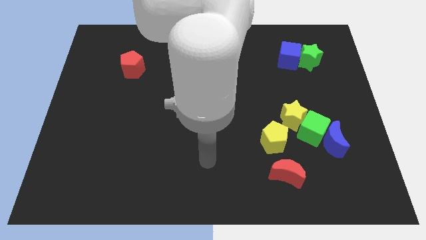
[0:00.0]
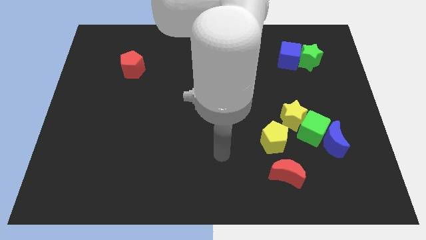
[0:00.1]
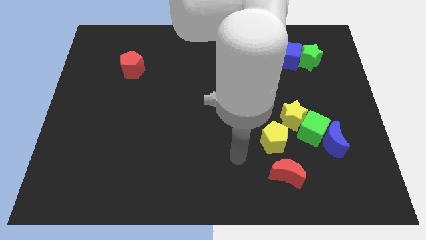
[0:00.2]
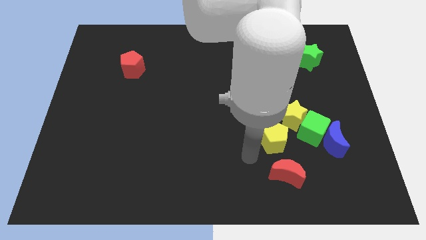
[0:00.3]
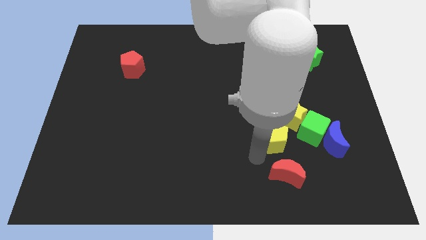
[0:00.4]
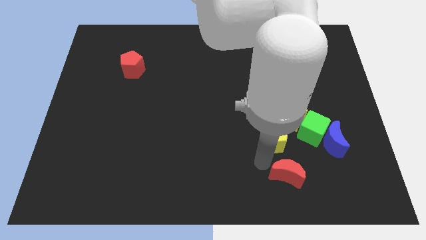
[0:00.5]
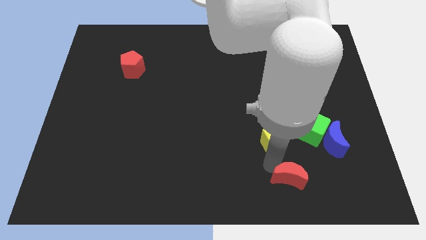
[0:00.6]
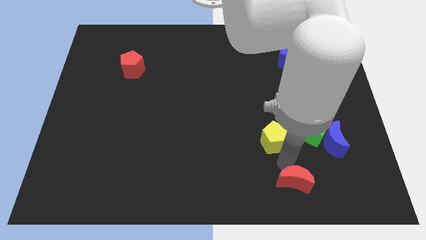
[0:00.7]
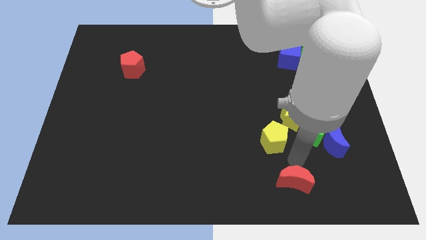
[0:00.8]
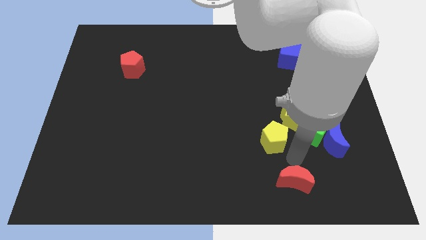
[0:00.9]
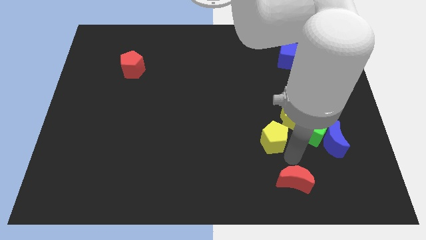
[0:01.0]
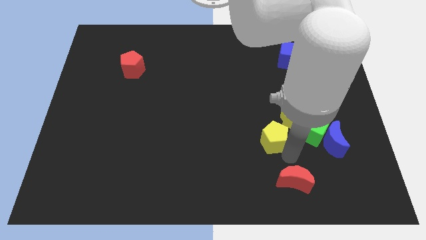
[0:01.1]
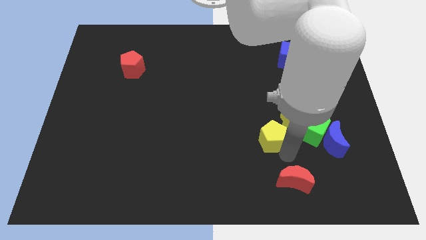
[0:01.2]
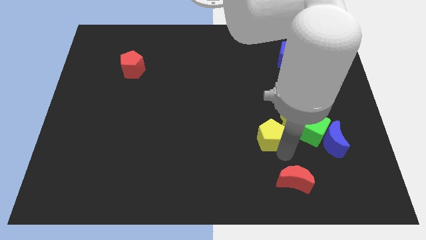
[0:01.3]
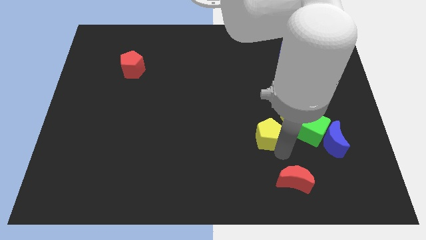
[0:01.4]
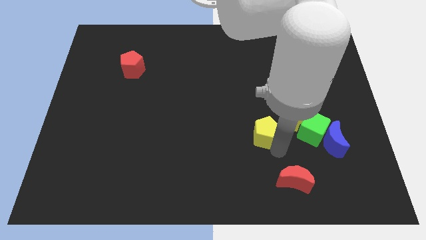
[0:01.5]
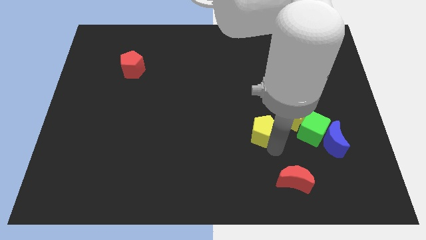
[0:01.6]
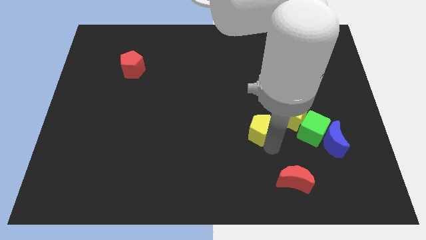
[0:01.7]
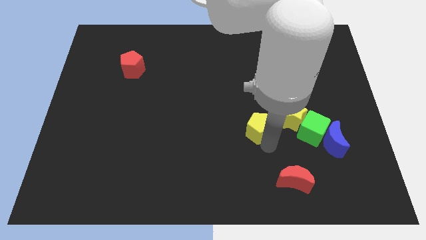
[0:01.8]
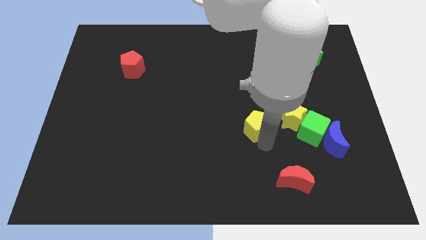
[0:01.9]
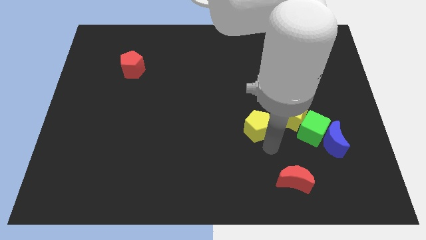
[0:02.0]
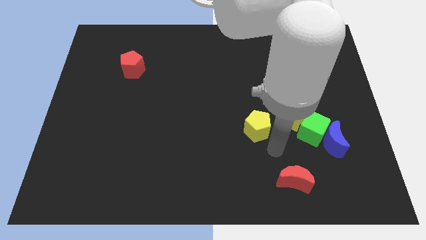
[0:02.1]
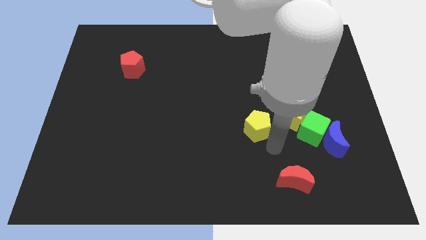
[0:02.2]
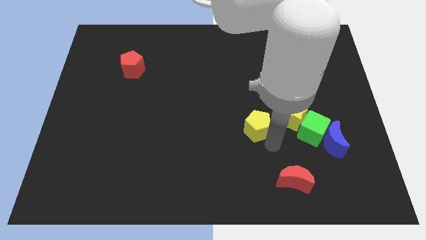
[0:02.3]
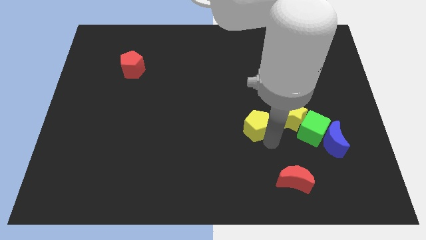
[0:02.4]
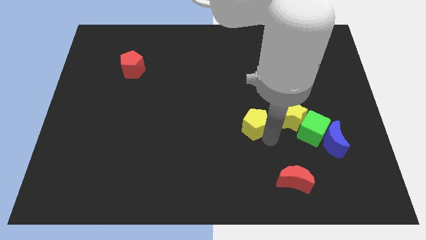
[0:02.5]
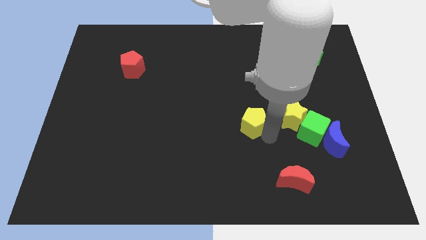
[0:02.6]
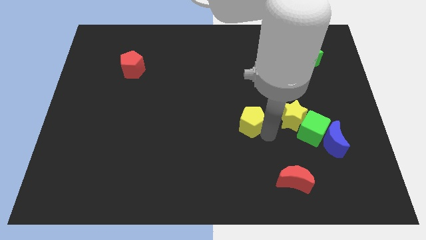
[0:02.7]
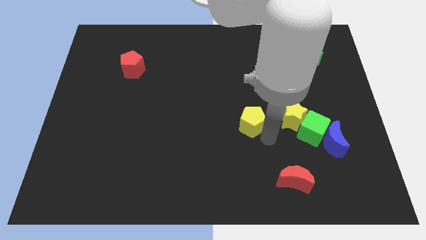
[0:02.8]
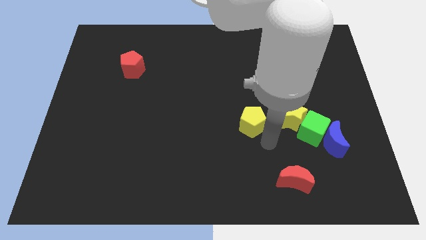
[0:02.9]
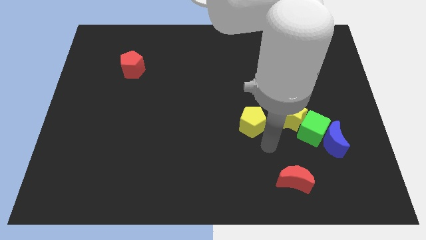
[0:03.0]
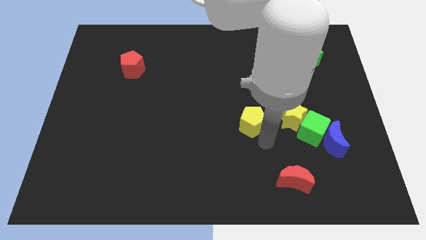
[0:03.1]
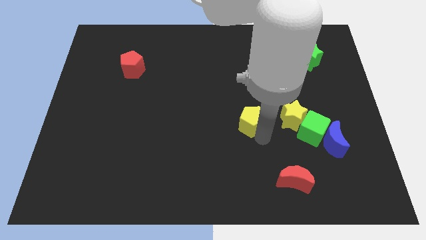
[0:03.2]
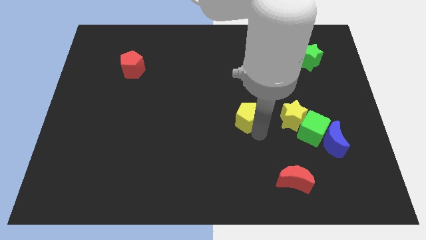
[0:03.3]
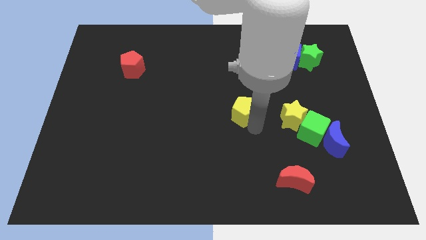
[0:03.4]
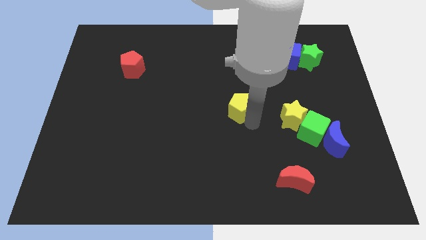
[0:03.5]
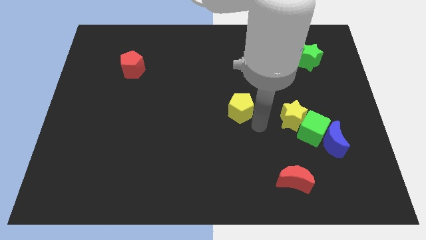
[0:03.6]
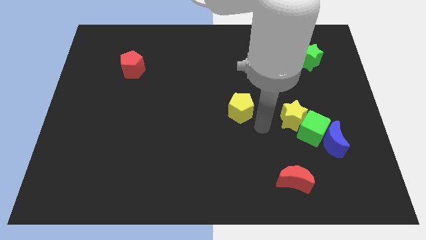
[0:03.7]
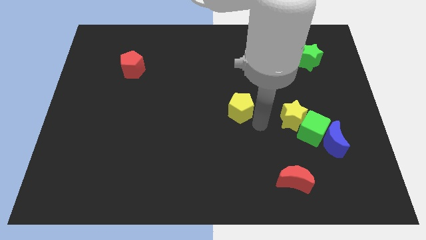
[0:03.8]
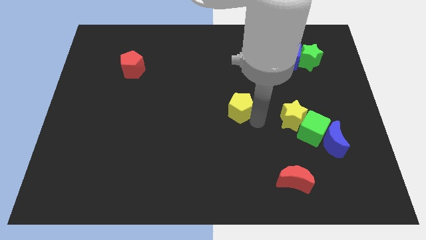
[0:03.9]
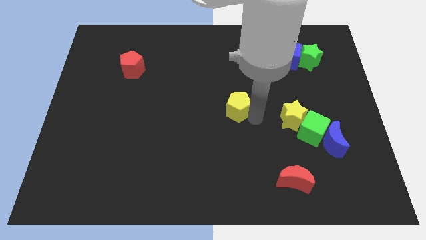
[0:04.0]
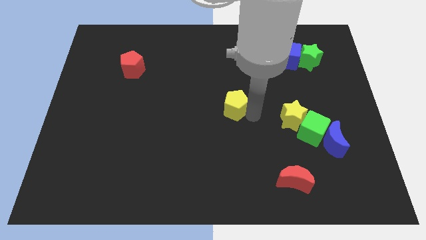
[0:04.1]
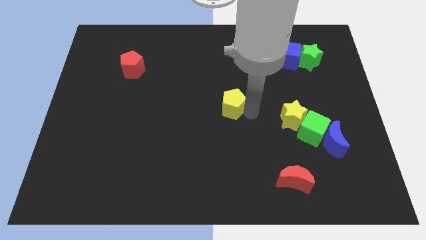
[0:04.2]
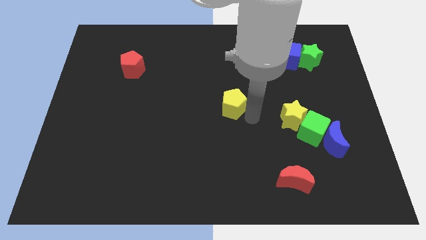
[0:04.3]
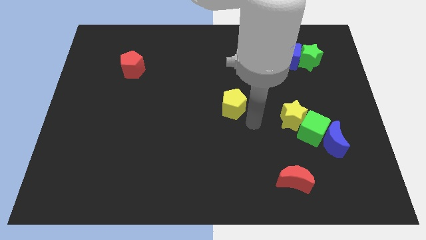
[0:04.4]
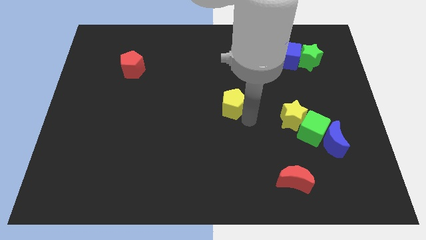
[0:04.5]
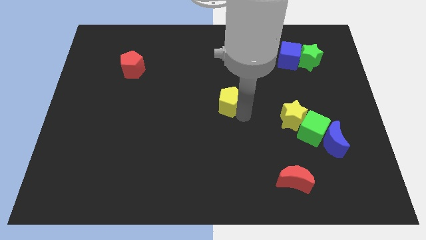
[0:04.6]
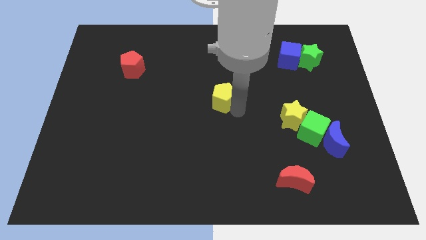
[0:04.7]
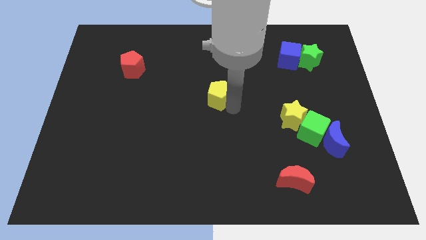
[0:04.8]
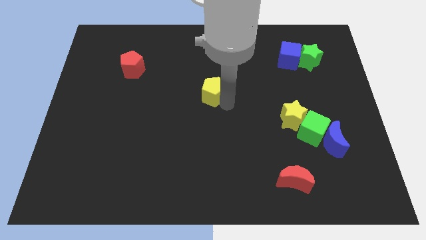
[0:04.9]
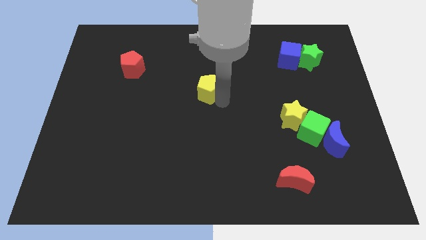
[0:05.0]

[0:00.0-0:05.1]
move the yellow pentagon upwards and to the left

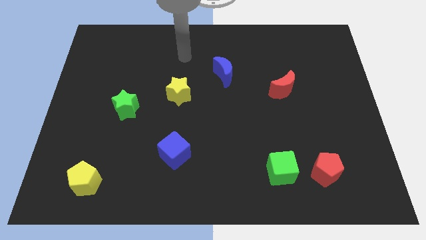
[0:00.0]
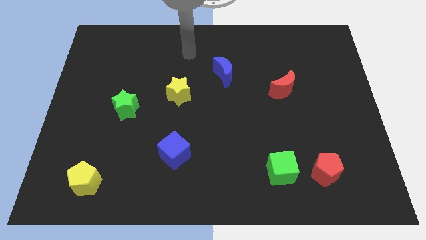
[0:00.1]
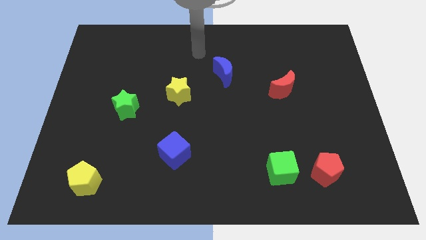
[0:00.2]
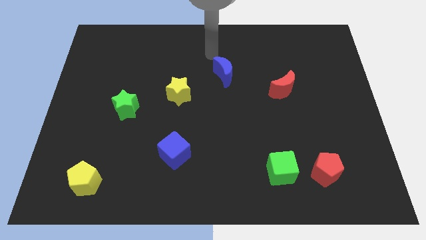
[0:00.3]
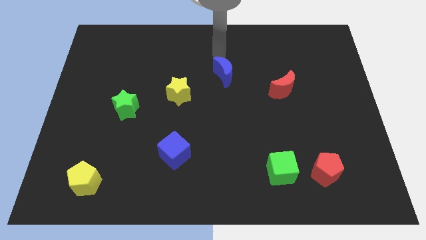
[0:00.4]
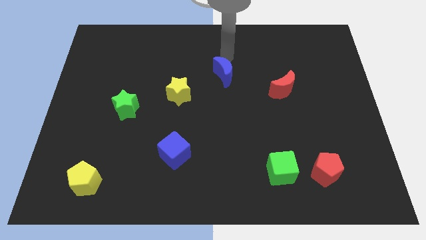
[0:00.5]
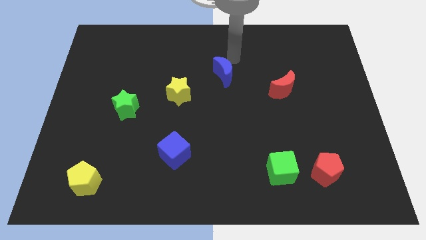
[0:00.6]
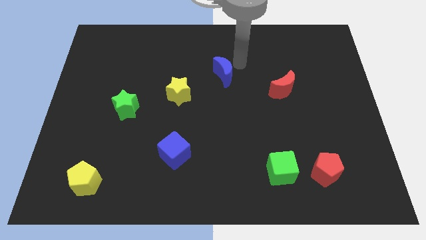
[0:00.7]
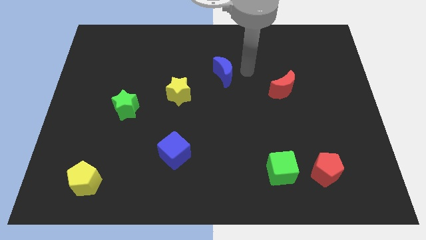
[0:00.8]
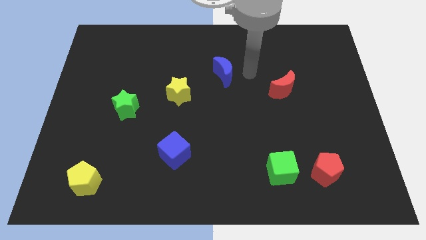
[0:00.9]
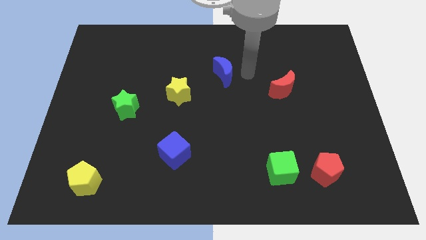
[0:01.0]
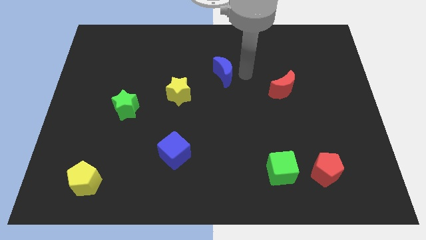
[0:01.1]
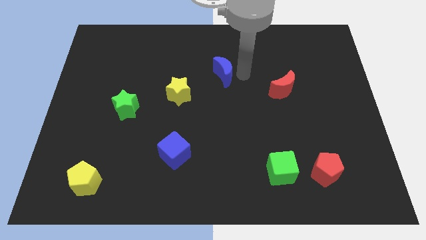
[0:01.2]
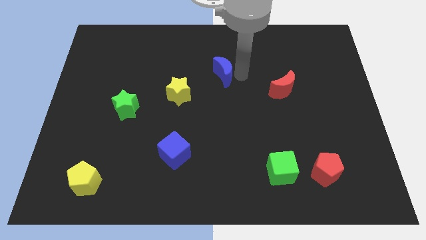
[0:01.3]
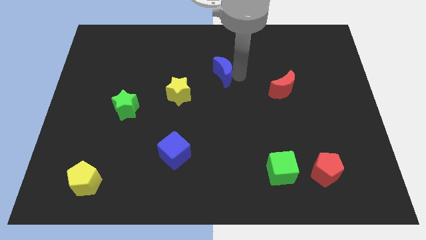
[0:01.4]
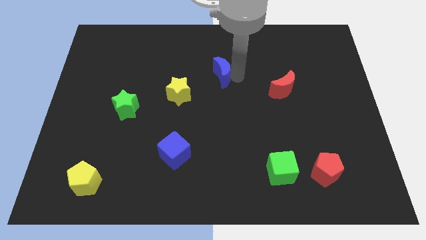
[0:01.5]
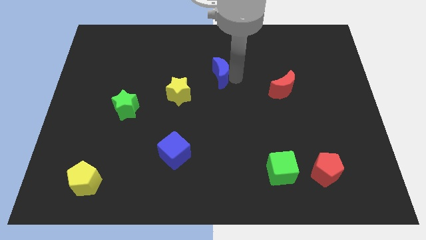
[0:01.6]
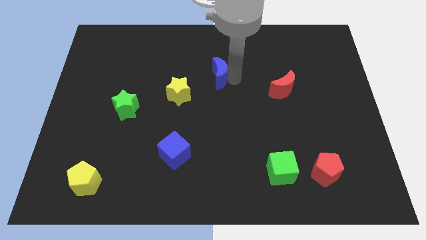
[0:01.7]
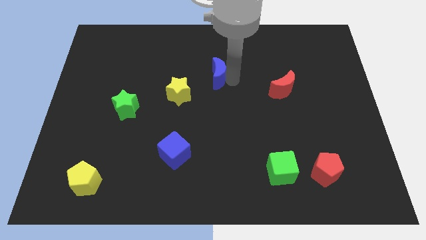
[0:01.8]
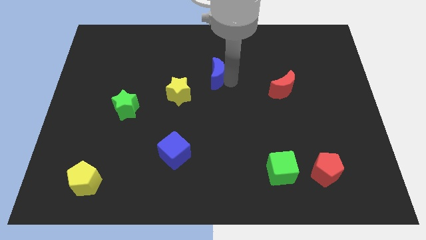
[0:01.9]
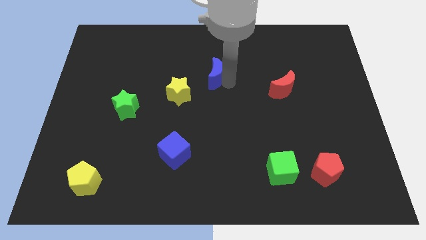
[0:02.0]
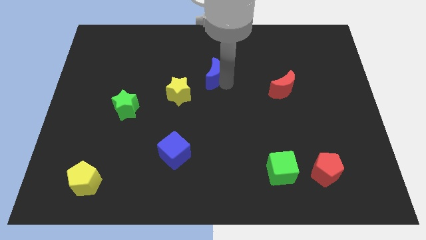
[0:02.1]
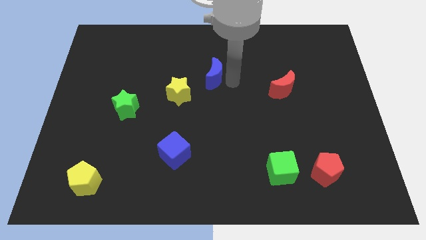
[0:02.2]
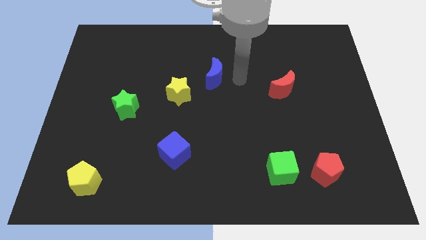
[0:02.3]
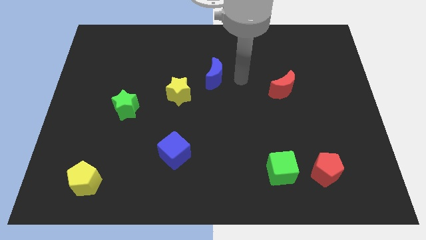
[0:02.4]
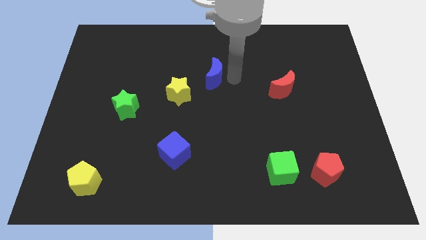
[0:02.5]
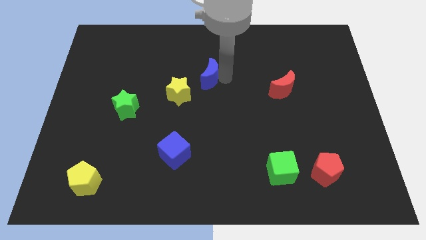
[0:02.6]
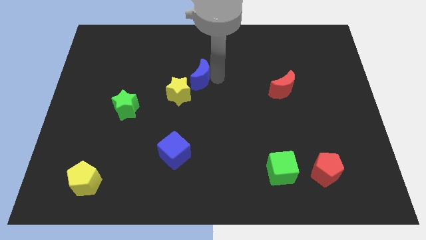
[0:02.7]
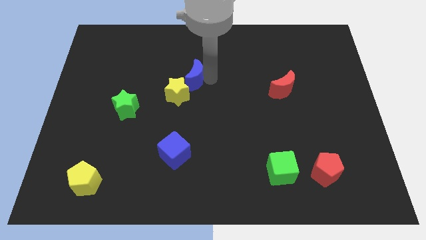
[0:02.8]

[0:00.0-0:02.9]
push the blue moon left somewhat
